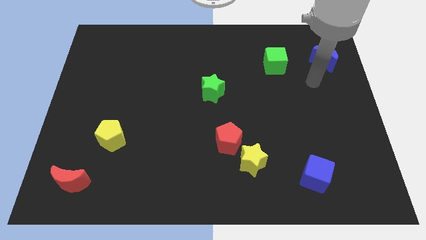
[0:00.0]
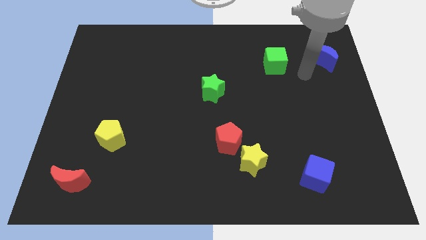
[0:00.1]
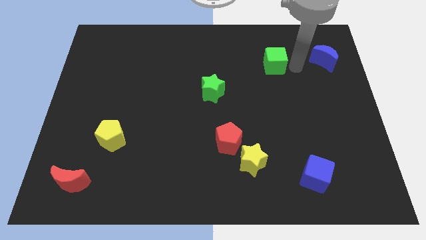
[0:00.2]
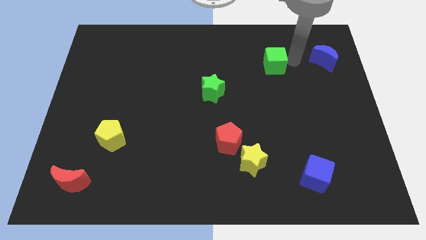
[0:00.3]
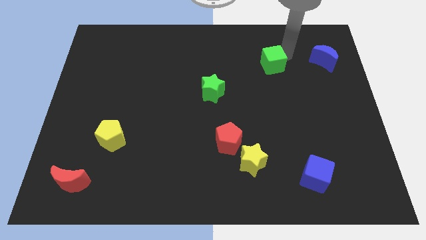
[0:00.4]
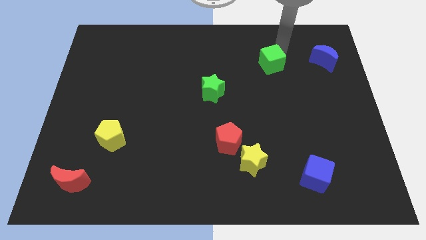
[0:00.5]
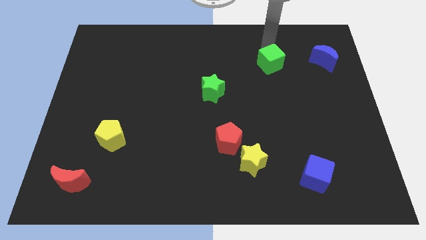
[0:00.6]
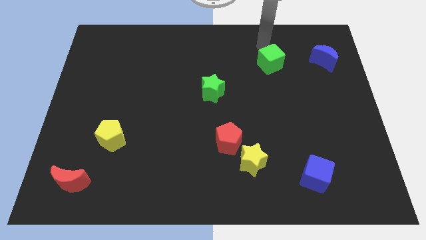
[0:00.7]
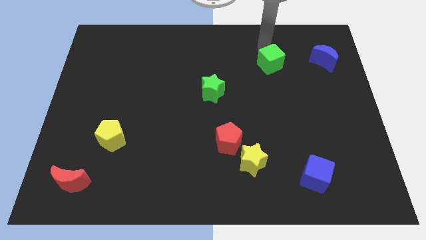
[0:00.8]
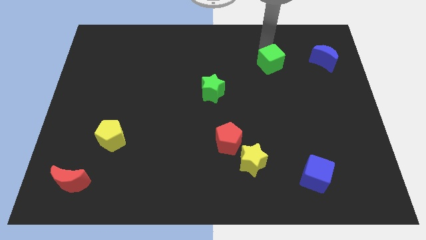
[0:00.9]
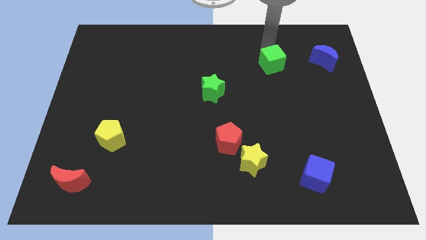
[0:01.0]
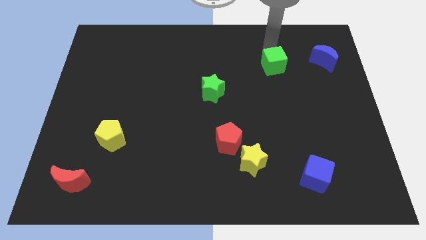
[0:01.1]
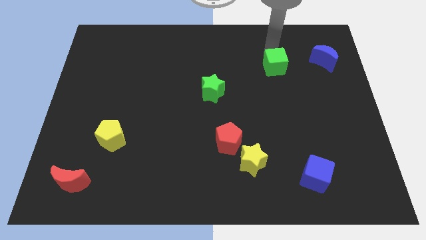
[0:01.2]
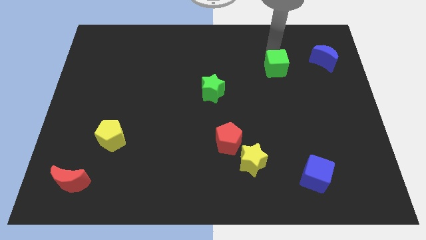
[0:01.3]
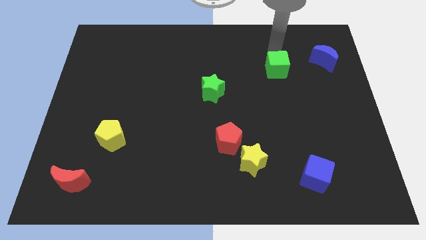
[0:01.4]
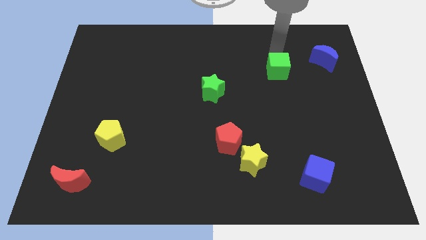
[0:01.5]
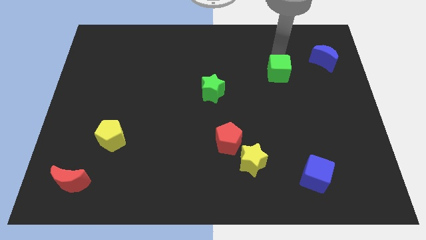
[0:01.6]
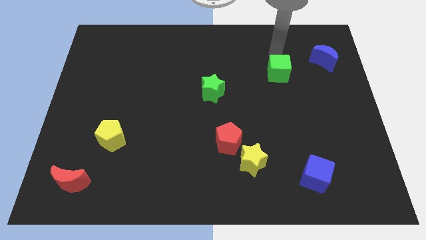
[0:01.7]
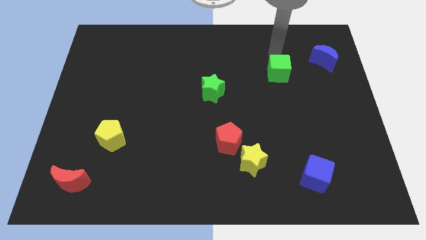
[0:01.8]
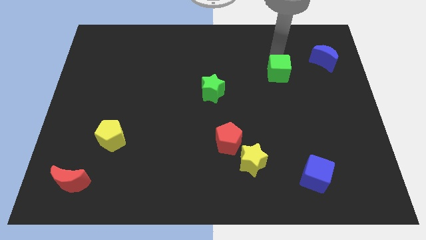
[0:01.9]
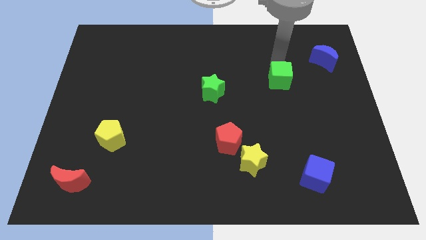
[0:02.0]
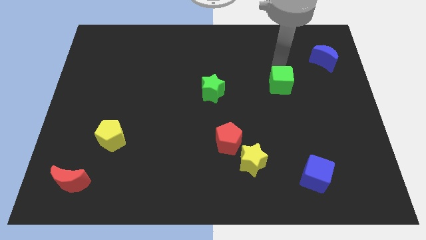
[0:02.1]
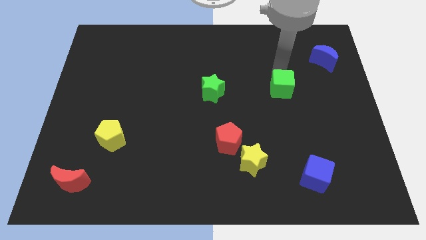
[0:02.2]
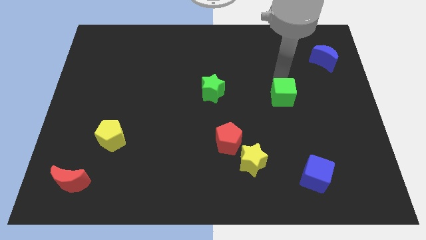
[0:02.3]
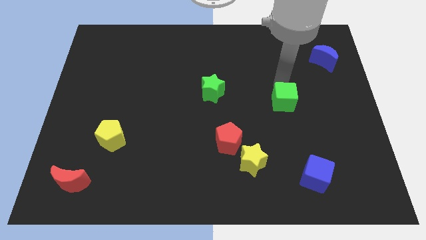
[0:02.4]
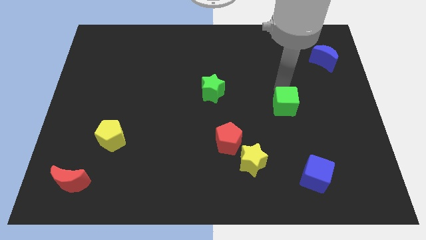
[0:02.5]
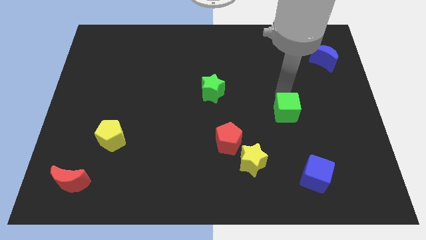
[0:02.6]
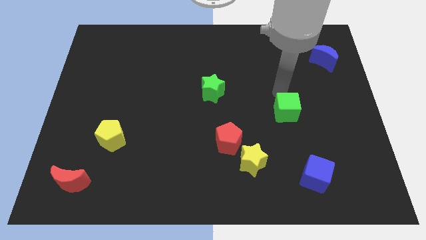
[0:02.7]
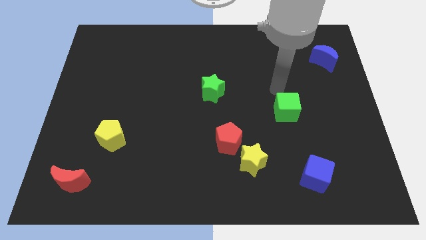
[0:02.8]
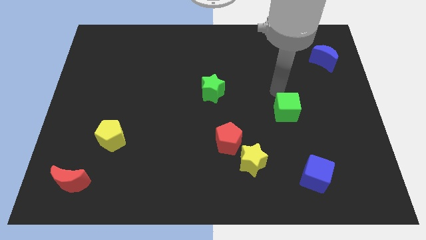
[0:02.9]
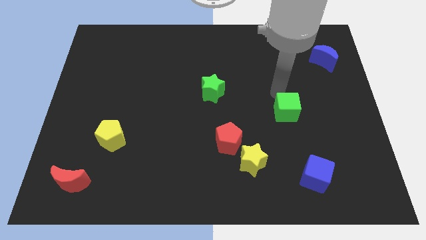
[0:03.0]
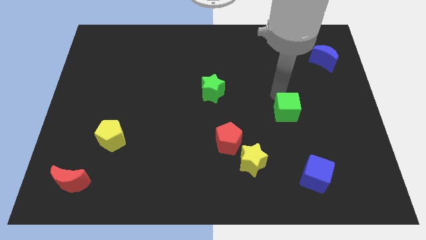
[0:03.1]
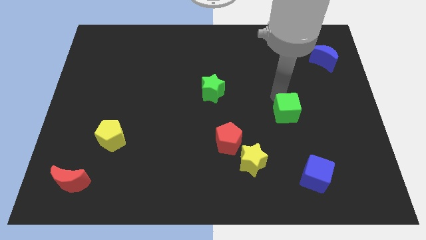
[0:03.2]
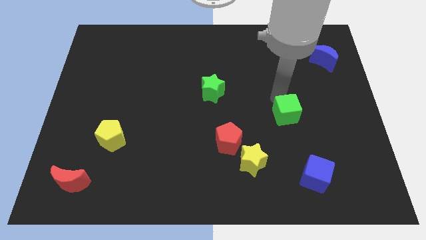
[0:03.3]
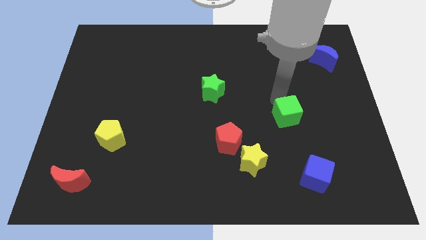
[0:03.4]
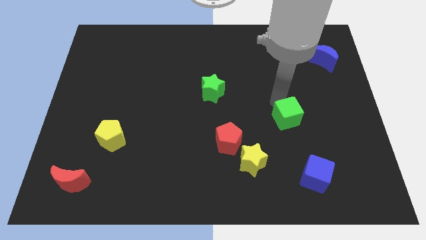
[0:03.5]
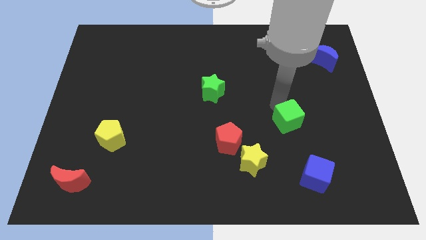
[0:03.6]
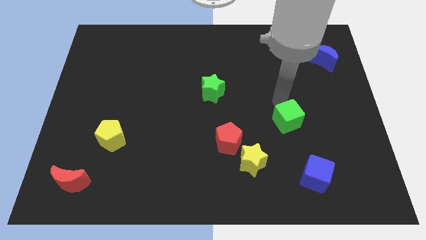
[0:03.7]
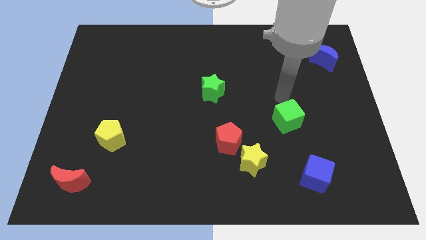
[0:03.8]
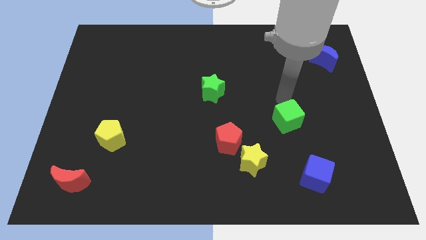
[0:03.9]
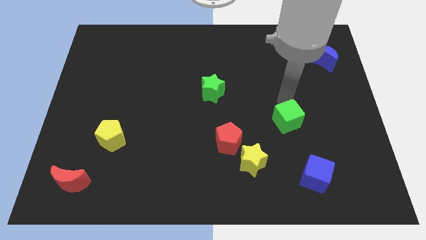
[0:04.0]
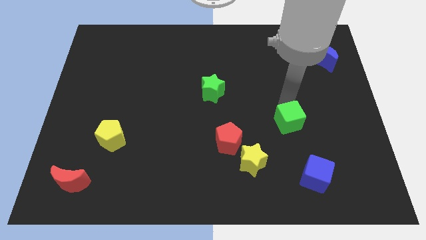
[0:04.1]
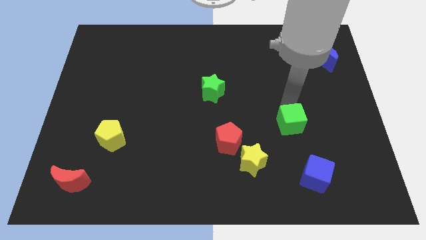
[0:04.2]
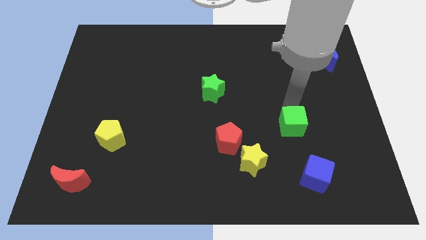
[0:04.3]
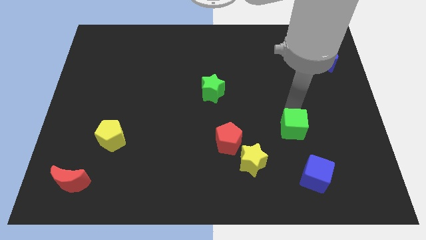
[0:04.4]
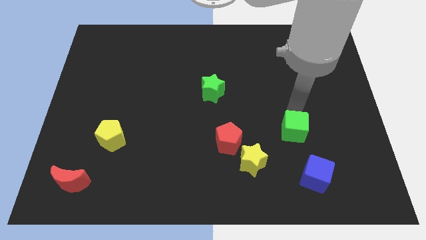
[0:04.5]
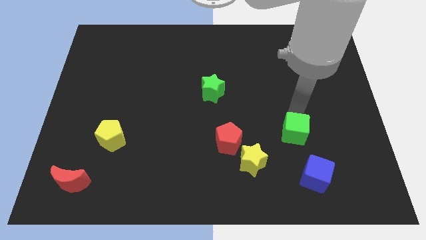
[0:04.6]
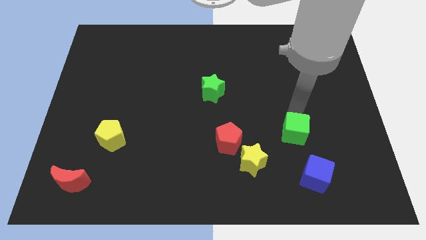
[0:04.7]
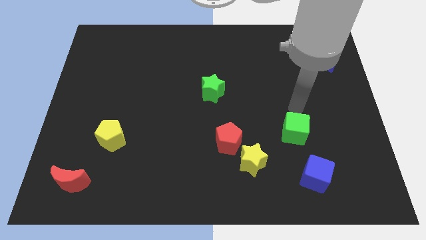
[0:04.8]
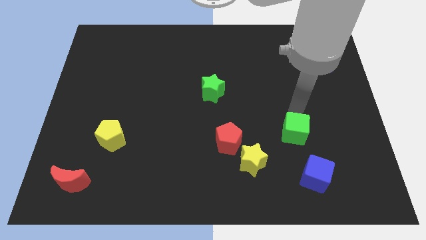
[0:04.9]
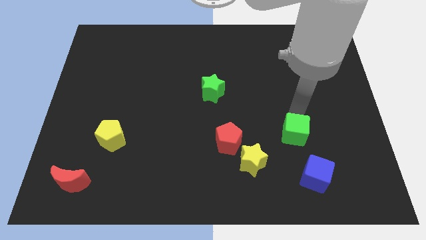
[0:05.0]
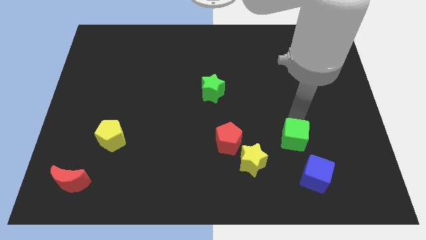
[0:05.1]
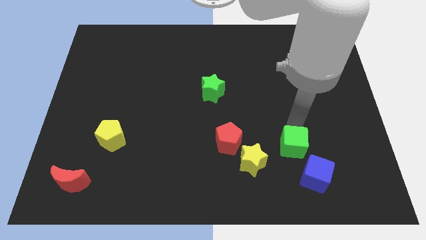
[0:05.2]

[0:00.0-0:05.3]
slide the green cube to the right side of the yellow star

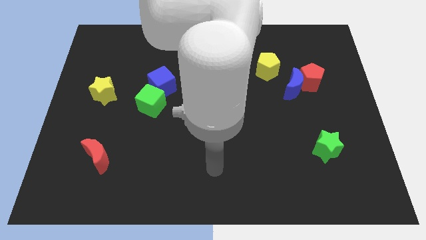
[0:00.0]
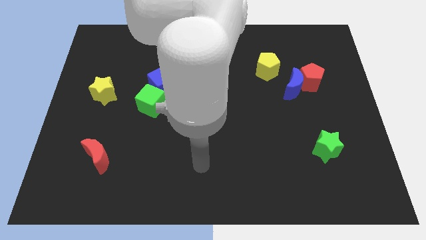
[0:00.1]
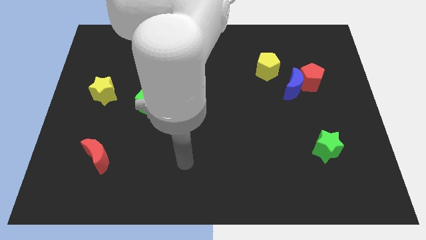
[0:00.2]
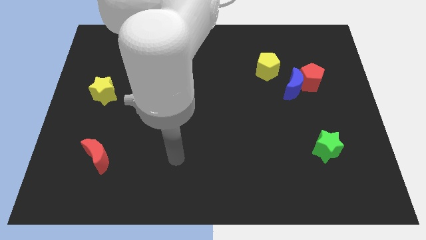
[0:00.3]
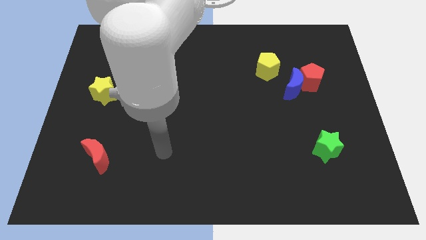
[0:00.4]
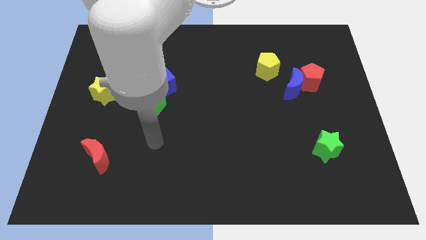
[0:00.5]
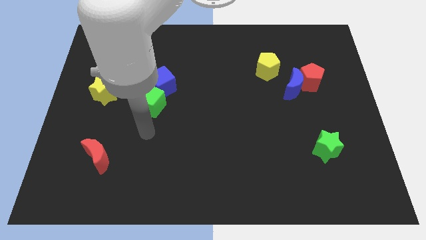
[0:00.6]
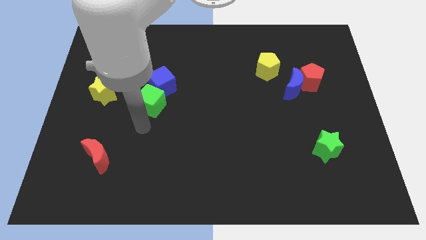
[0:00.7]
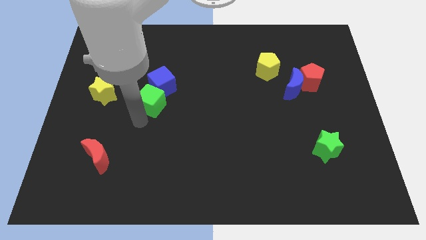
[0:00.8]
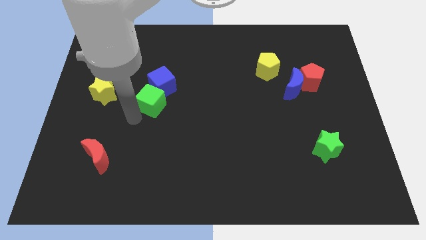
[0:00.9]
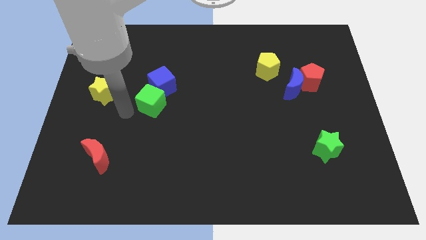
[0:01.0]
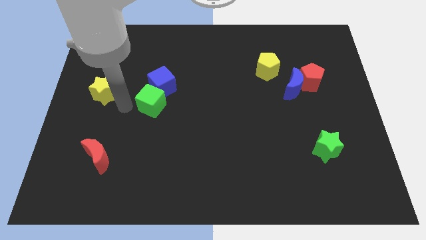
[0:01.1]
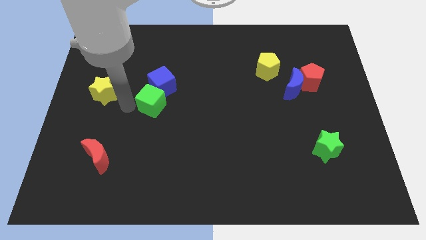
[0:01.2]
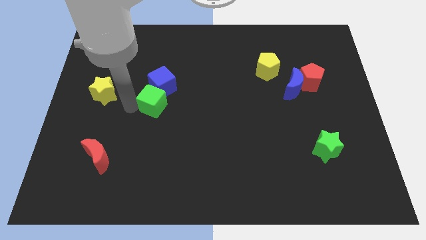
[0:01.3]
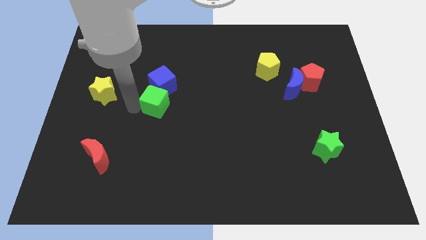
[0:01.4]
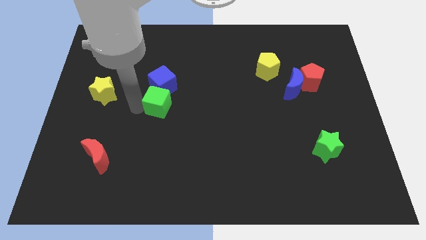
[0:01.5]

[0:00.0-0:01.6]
put the green cube to the bottom right of the blue cube

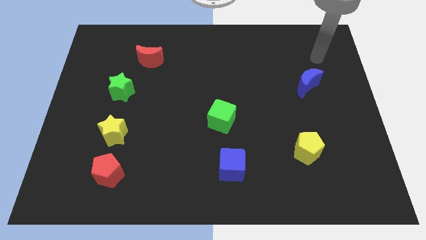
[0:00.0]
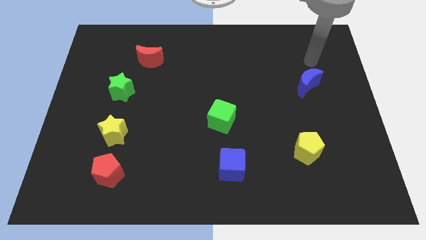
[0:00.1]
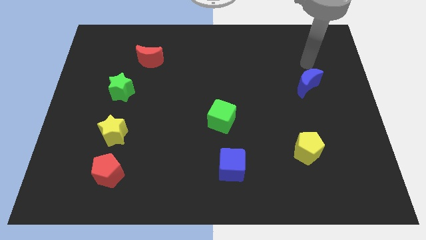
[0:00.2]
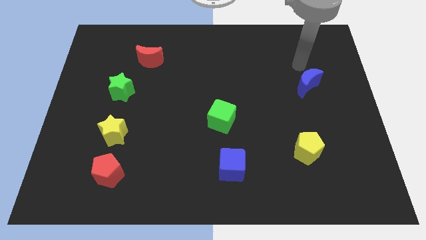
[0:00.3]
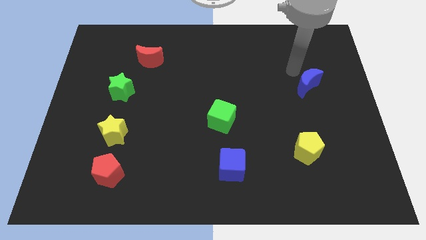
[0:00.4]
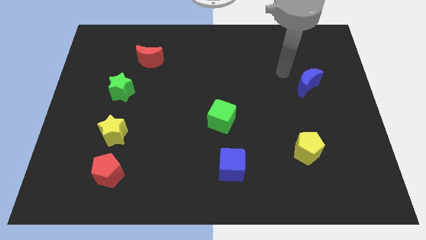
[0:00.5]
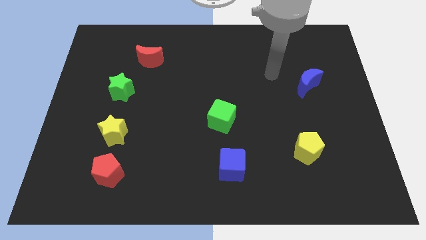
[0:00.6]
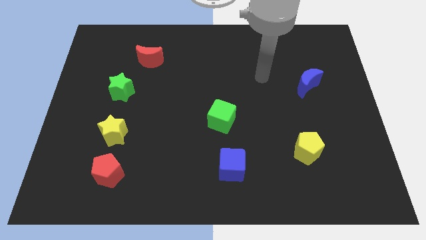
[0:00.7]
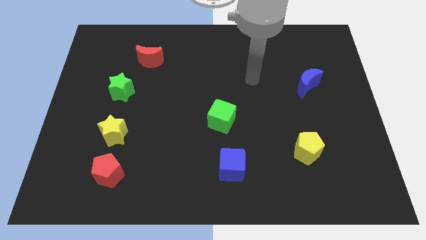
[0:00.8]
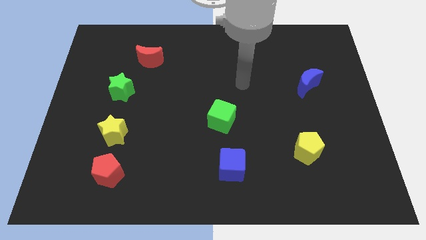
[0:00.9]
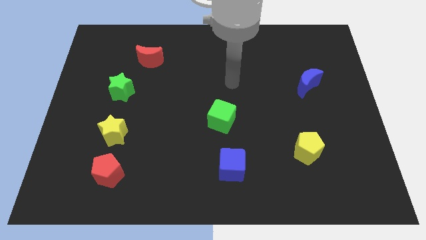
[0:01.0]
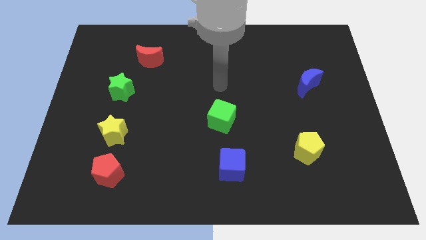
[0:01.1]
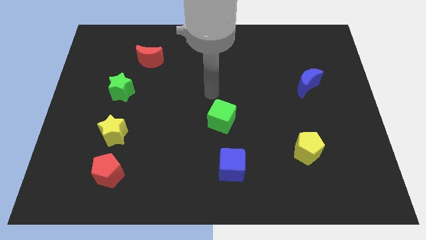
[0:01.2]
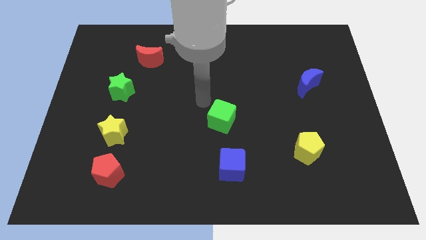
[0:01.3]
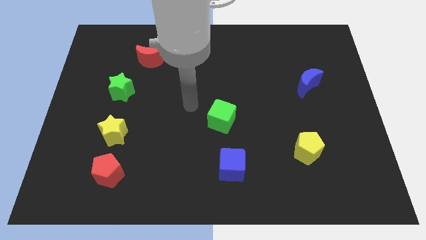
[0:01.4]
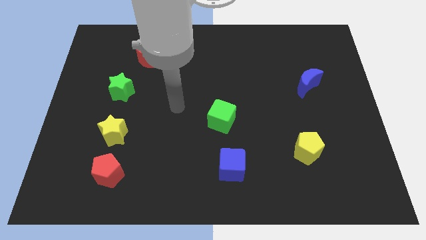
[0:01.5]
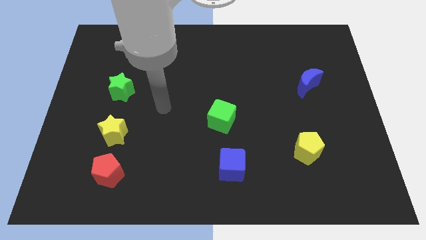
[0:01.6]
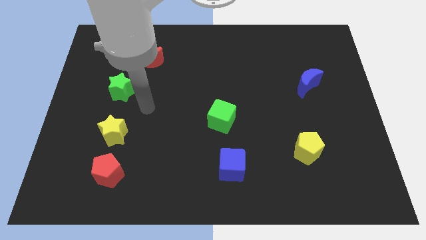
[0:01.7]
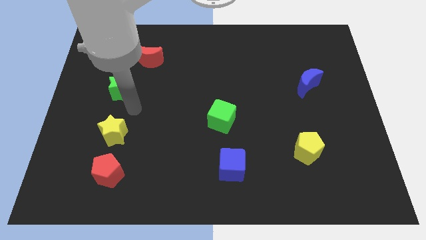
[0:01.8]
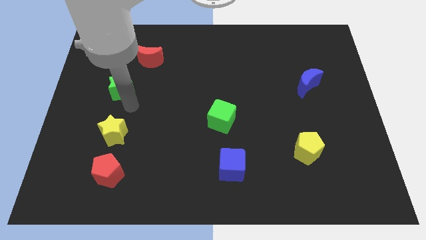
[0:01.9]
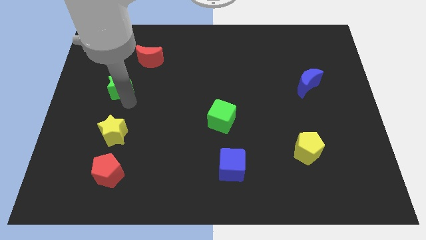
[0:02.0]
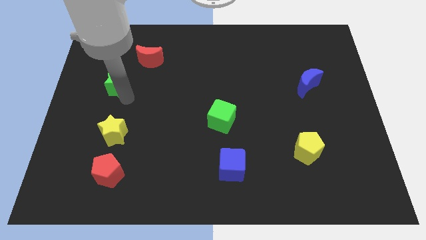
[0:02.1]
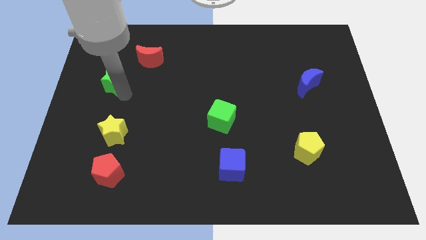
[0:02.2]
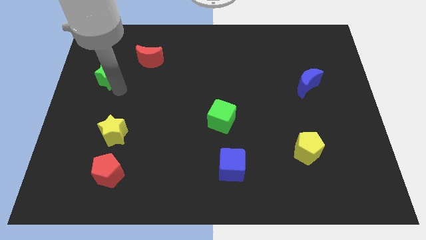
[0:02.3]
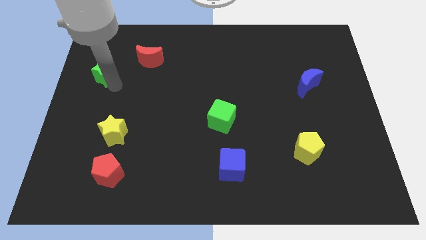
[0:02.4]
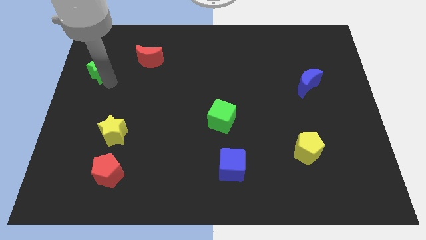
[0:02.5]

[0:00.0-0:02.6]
push the green star just left of the red moon
